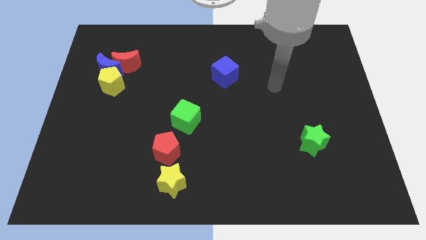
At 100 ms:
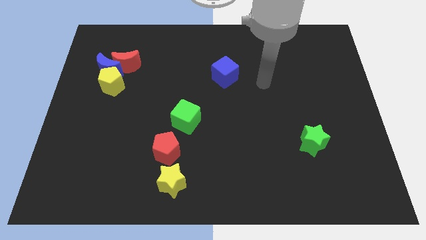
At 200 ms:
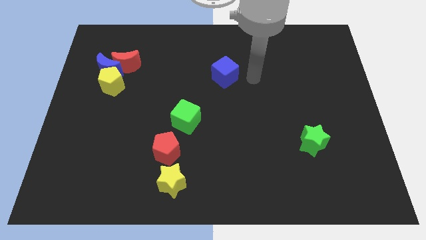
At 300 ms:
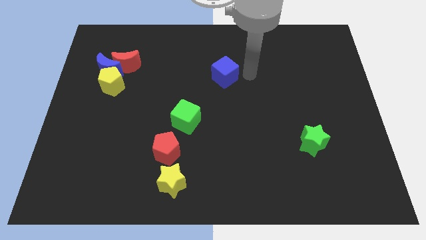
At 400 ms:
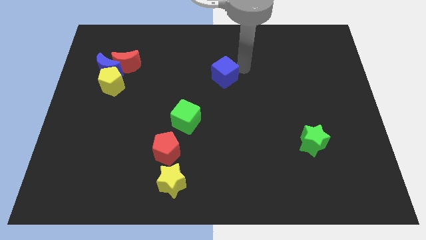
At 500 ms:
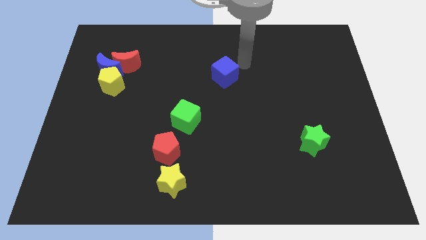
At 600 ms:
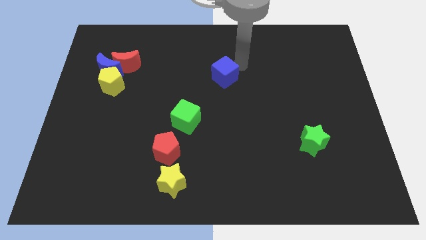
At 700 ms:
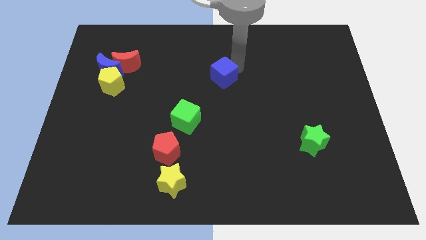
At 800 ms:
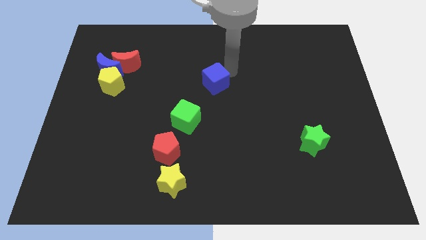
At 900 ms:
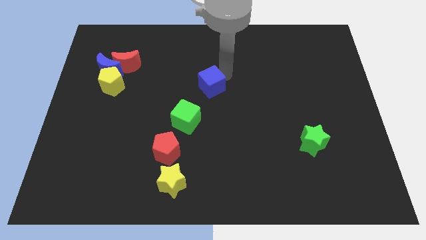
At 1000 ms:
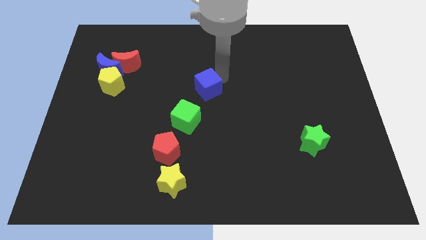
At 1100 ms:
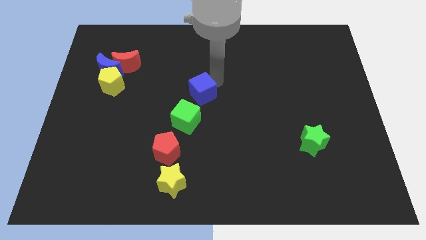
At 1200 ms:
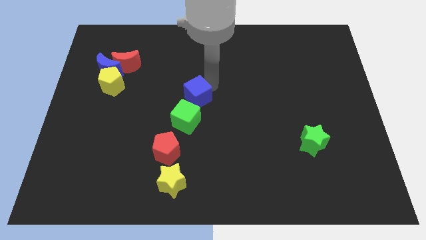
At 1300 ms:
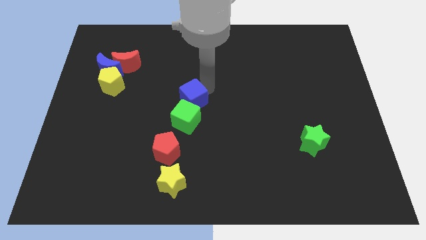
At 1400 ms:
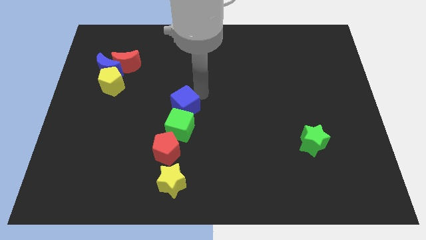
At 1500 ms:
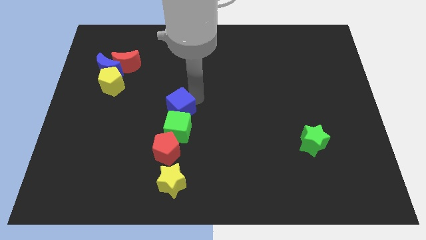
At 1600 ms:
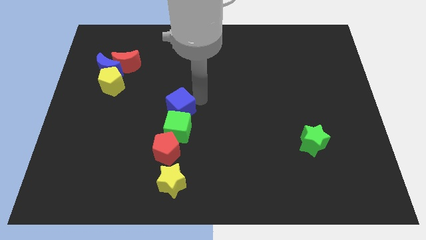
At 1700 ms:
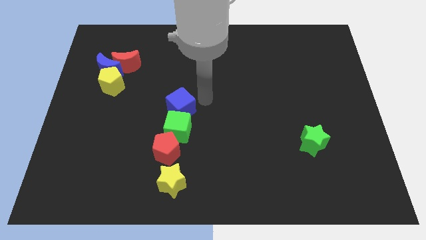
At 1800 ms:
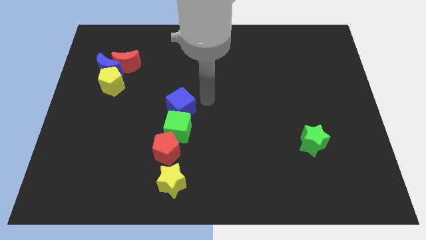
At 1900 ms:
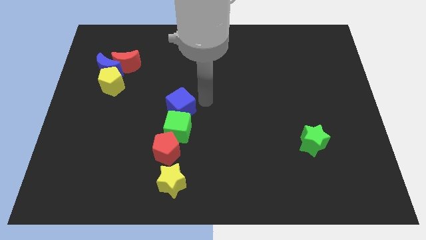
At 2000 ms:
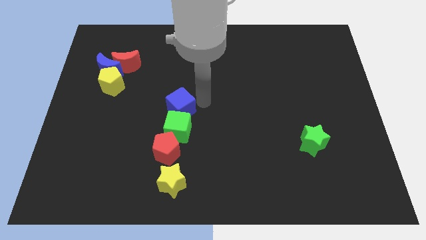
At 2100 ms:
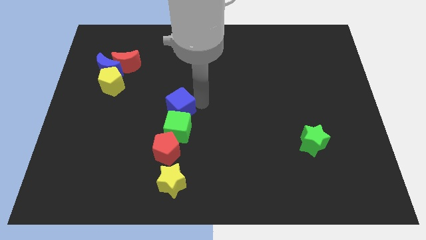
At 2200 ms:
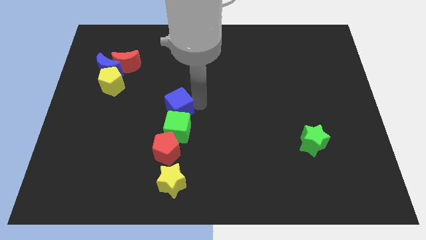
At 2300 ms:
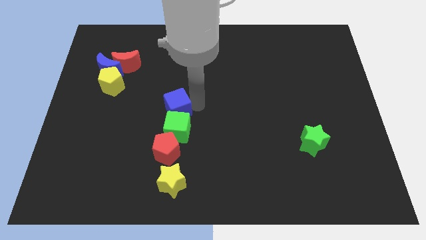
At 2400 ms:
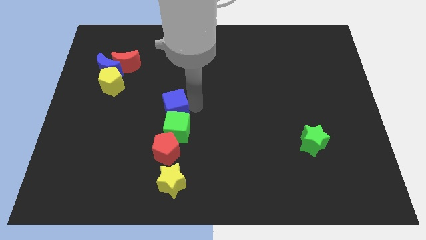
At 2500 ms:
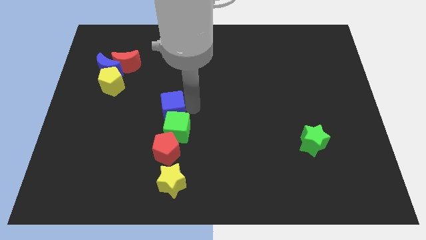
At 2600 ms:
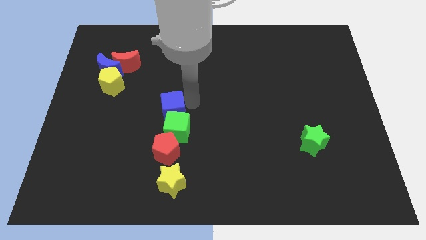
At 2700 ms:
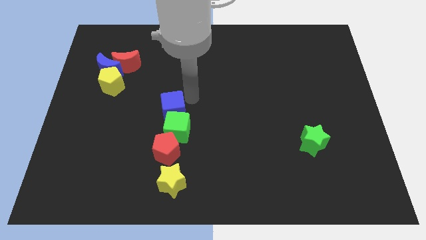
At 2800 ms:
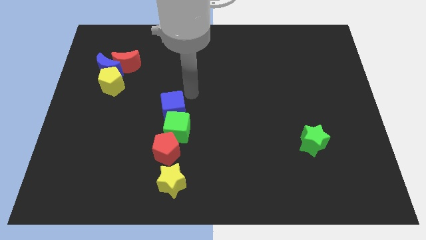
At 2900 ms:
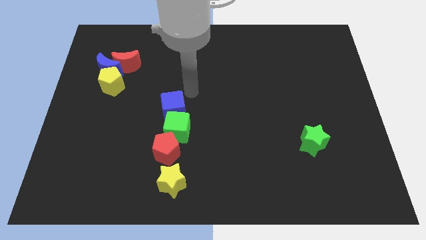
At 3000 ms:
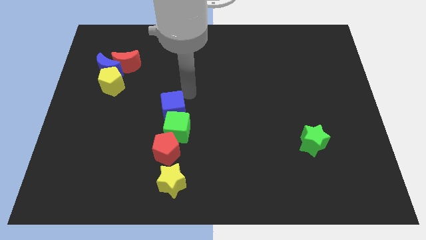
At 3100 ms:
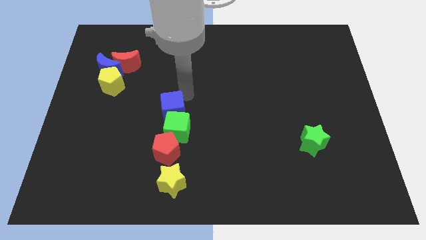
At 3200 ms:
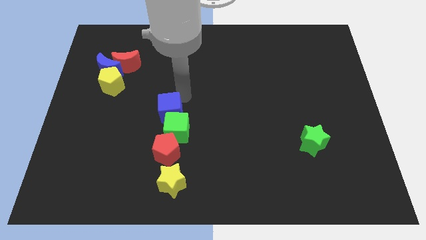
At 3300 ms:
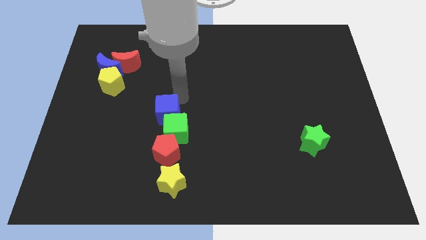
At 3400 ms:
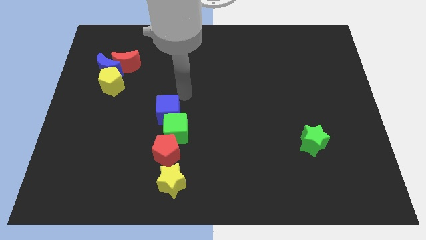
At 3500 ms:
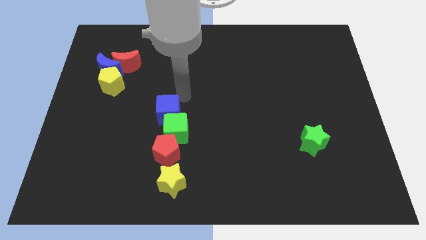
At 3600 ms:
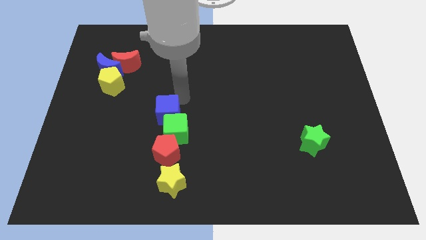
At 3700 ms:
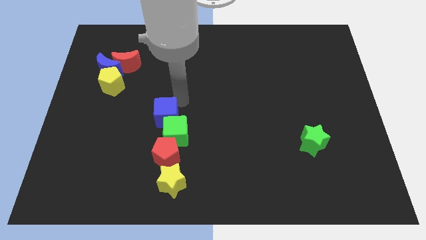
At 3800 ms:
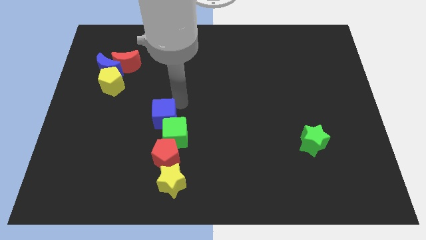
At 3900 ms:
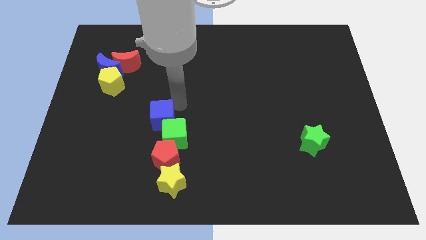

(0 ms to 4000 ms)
move the blue cube down and left diagonally

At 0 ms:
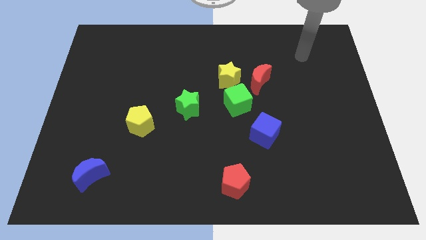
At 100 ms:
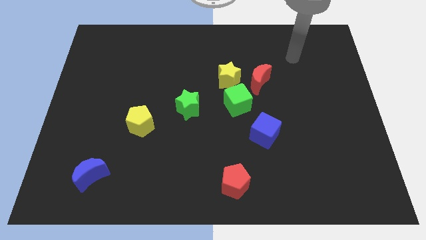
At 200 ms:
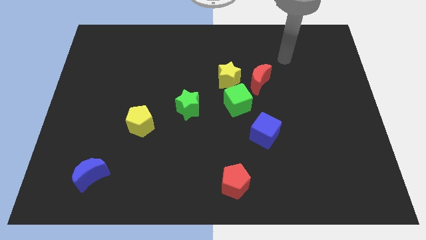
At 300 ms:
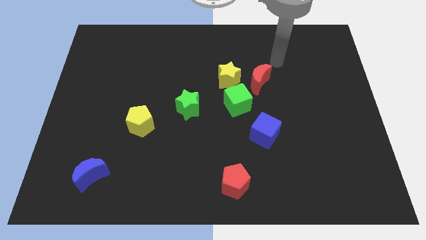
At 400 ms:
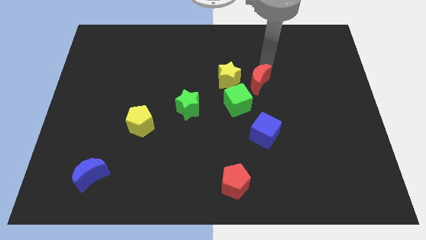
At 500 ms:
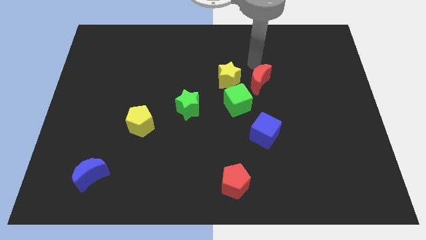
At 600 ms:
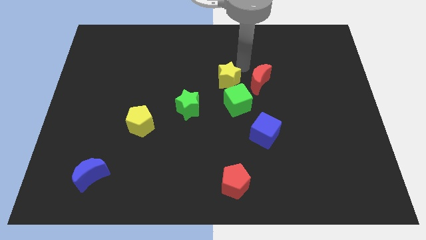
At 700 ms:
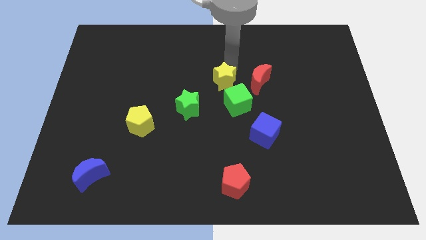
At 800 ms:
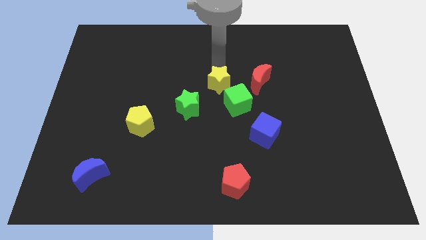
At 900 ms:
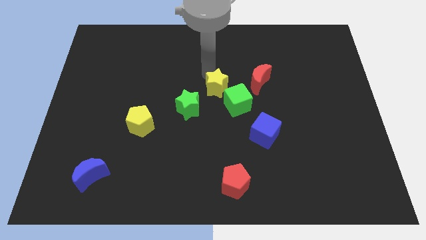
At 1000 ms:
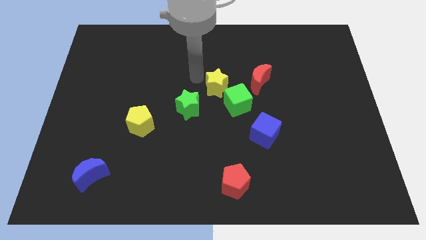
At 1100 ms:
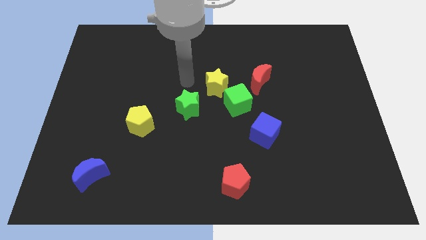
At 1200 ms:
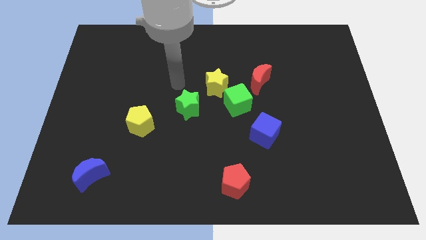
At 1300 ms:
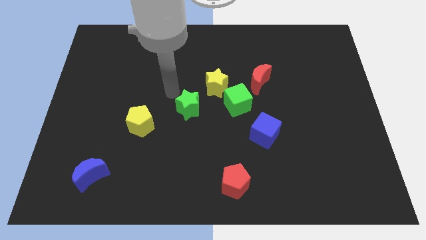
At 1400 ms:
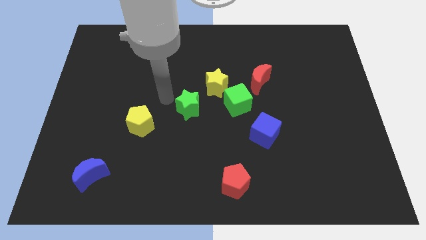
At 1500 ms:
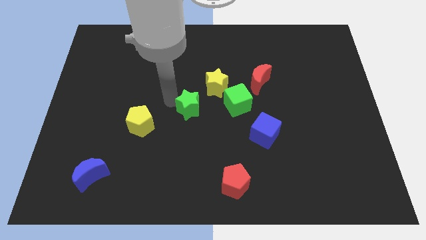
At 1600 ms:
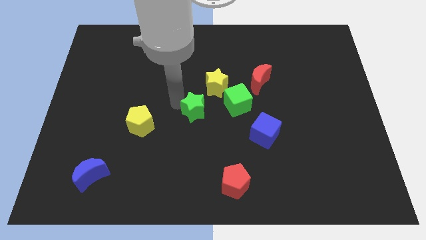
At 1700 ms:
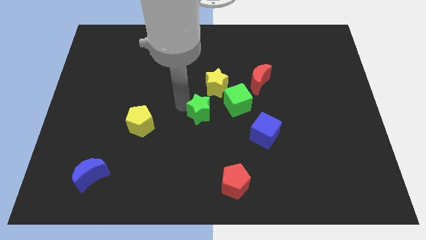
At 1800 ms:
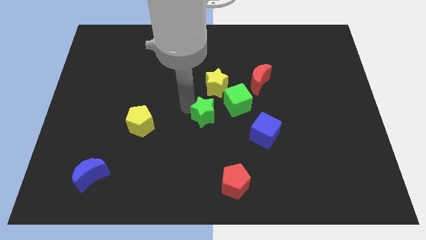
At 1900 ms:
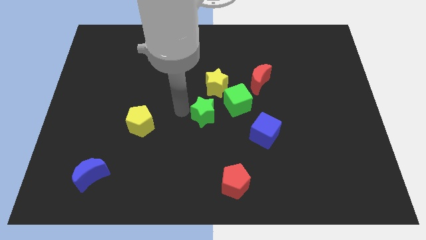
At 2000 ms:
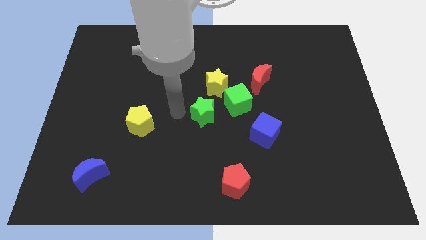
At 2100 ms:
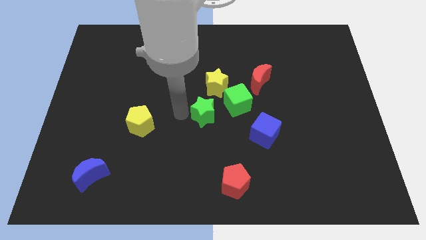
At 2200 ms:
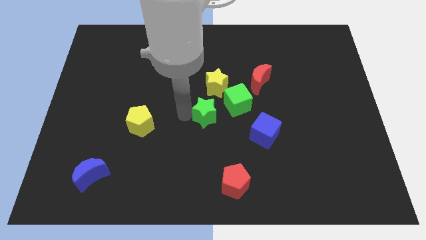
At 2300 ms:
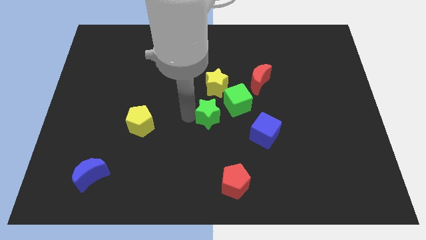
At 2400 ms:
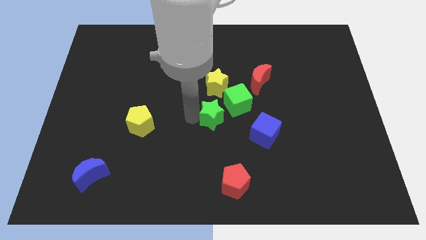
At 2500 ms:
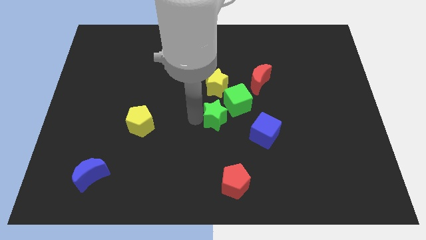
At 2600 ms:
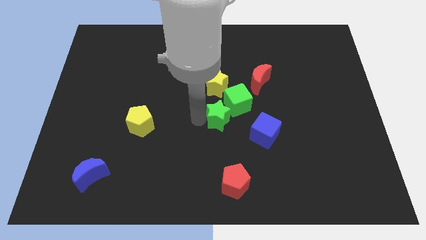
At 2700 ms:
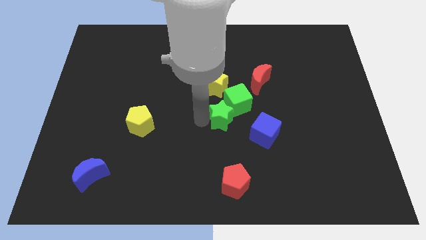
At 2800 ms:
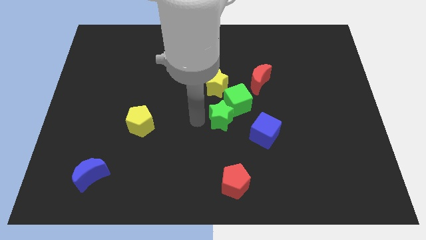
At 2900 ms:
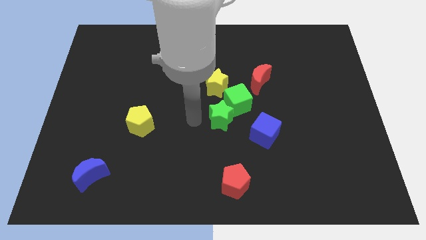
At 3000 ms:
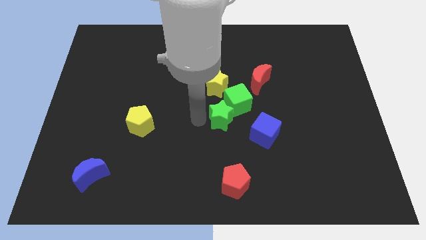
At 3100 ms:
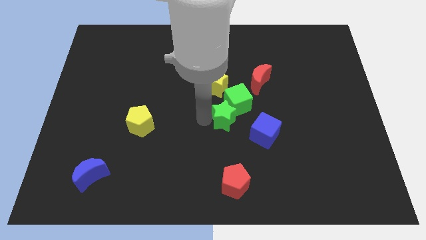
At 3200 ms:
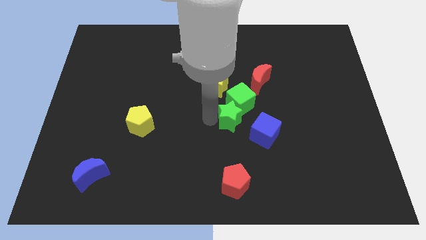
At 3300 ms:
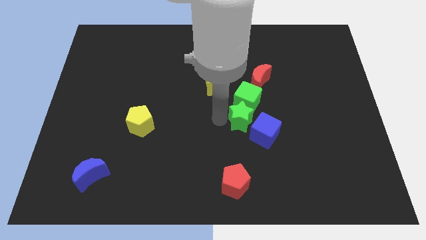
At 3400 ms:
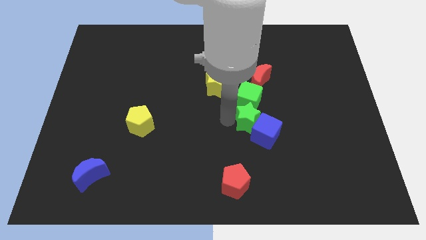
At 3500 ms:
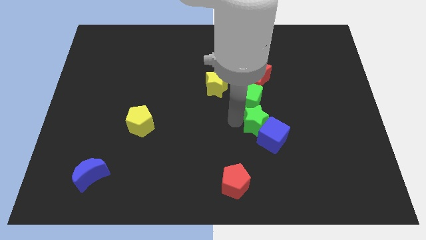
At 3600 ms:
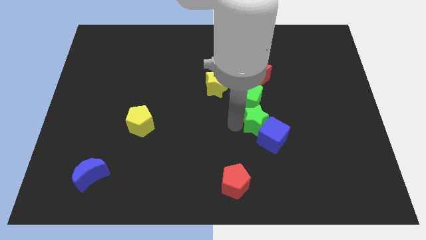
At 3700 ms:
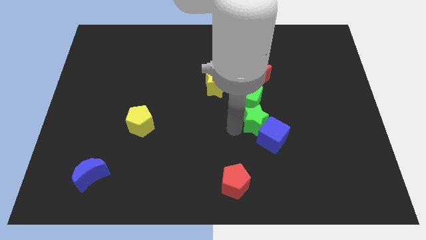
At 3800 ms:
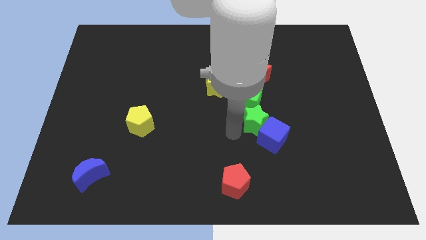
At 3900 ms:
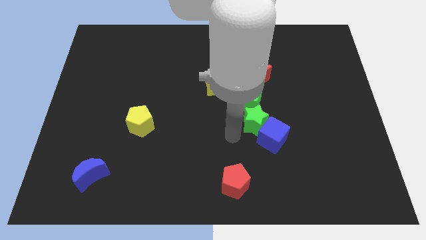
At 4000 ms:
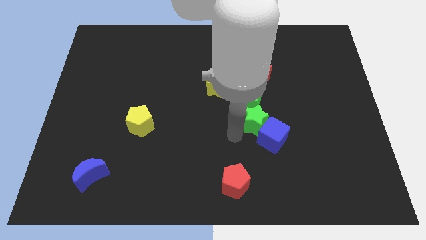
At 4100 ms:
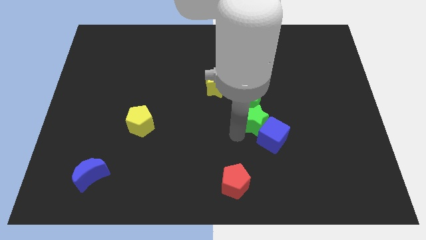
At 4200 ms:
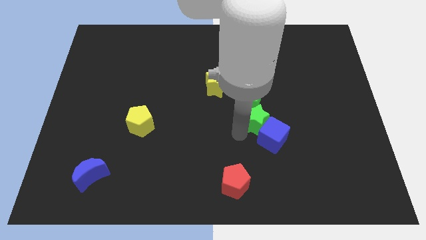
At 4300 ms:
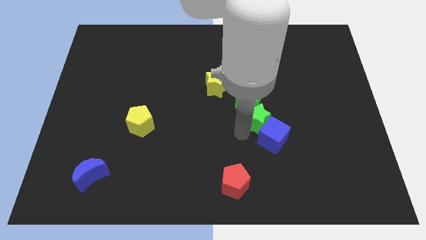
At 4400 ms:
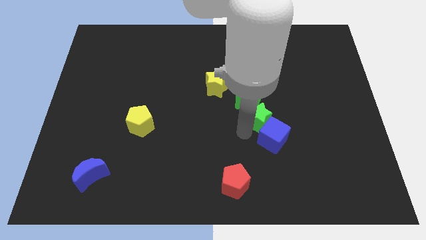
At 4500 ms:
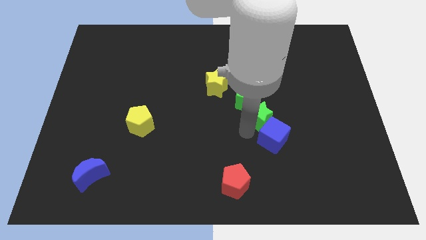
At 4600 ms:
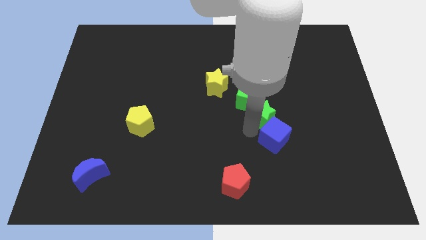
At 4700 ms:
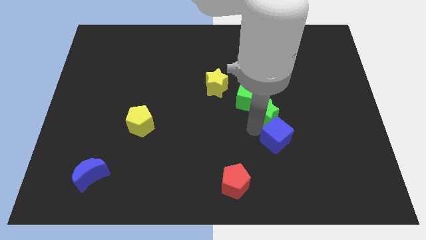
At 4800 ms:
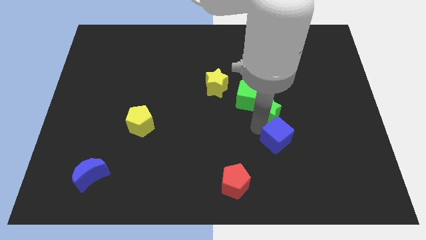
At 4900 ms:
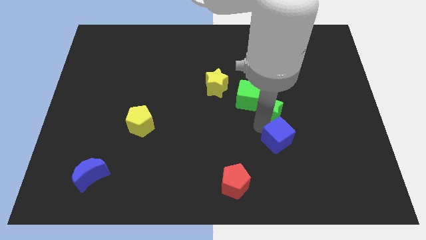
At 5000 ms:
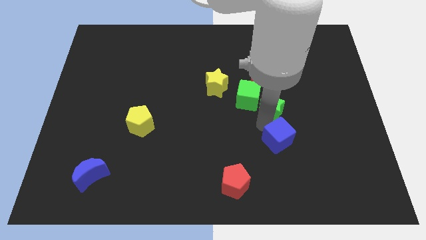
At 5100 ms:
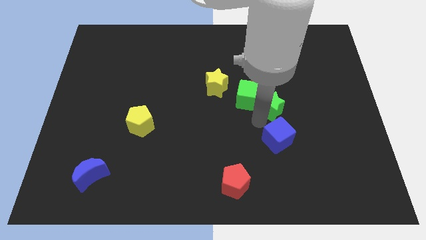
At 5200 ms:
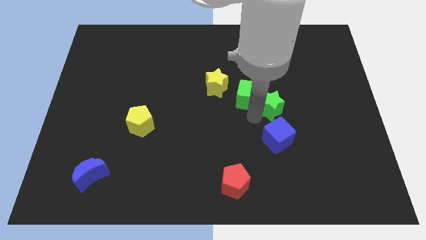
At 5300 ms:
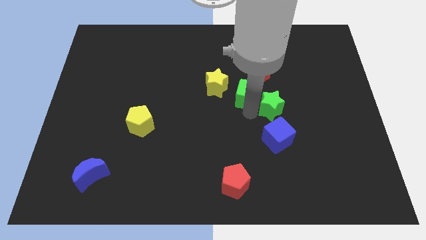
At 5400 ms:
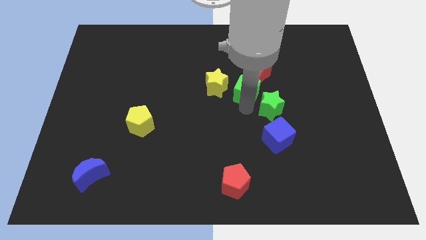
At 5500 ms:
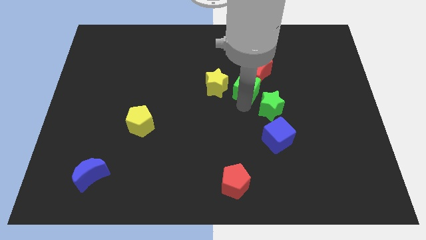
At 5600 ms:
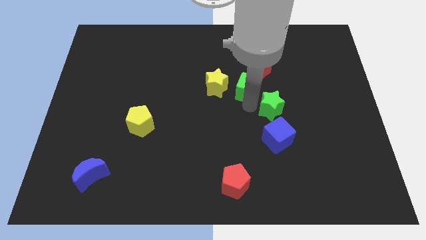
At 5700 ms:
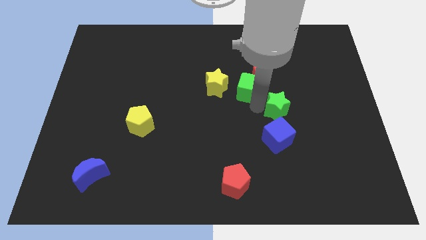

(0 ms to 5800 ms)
push the green star to the right
